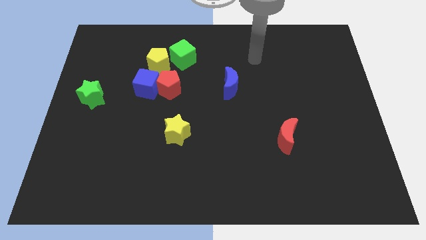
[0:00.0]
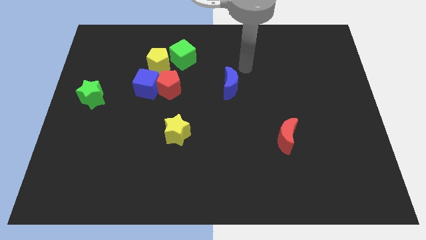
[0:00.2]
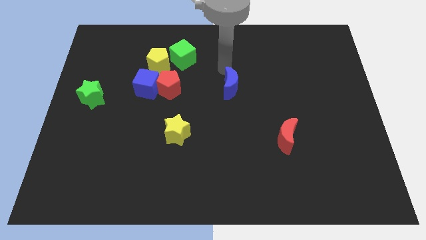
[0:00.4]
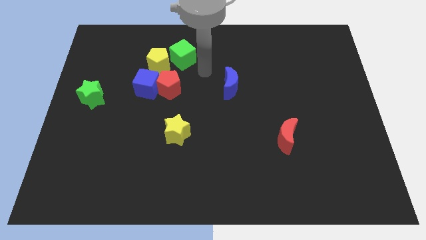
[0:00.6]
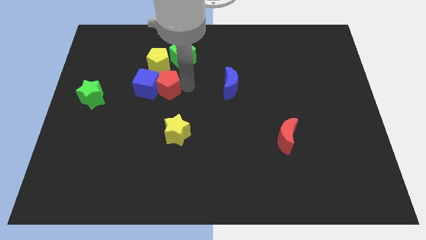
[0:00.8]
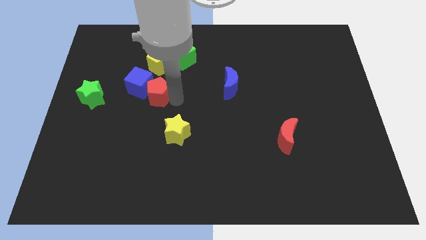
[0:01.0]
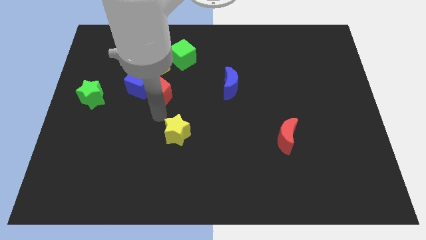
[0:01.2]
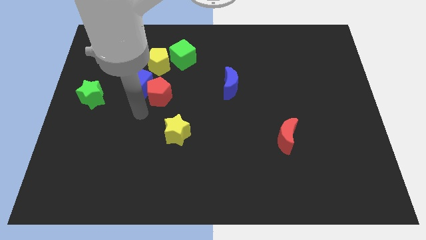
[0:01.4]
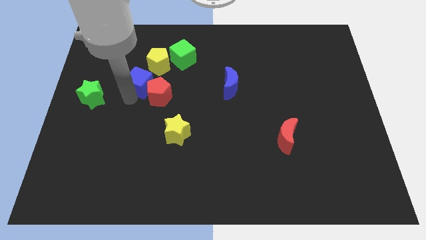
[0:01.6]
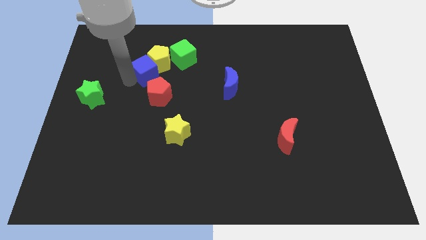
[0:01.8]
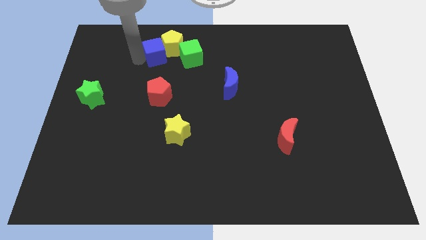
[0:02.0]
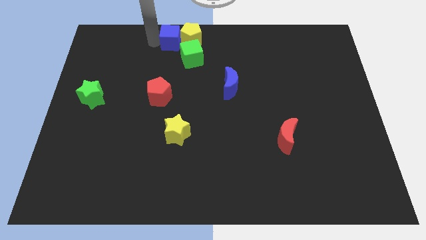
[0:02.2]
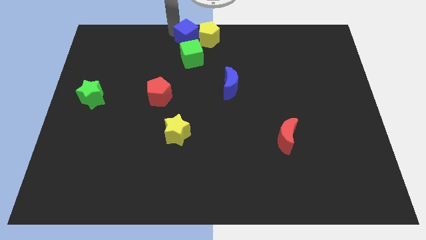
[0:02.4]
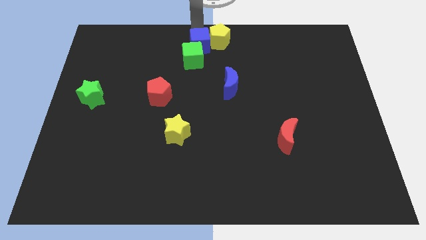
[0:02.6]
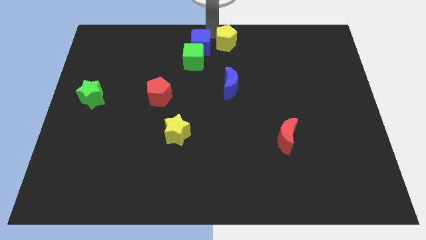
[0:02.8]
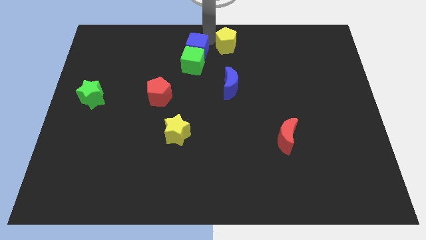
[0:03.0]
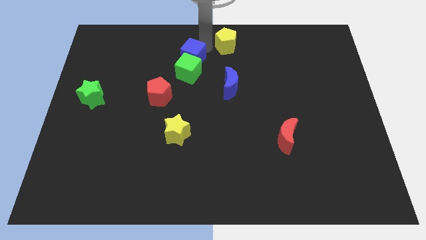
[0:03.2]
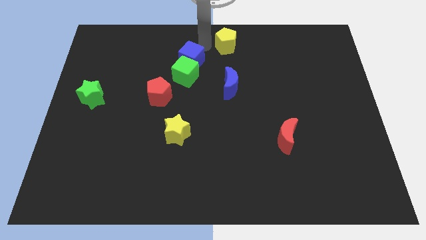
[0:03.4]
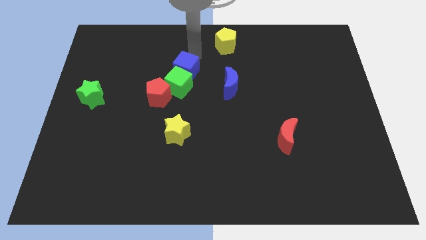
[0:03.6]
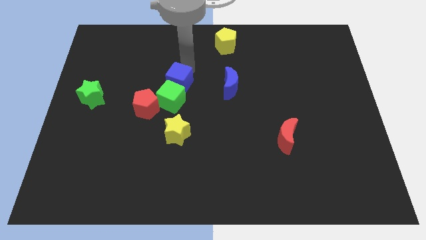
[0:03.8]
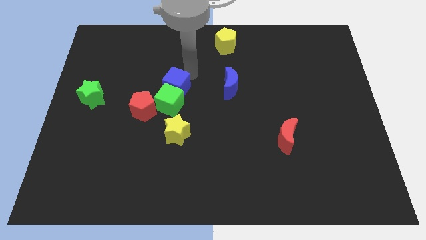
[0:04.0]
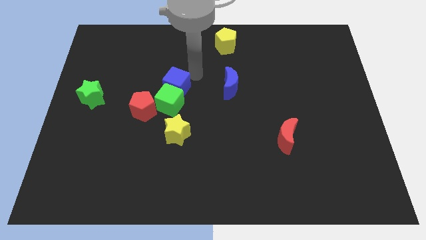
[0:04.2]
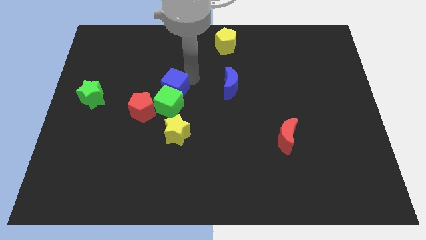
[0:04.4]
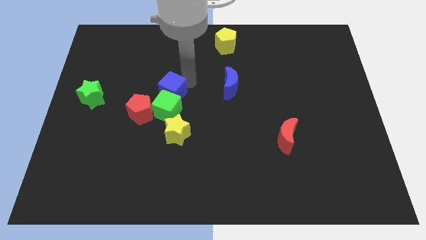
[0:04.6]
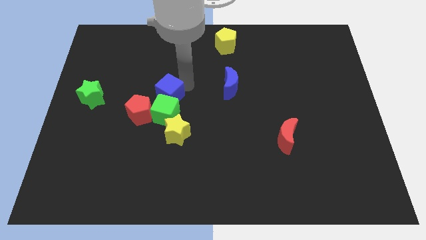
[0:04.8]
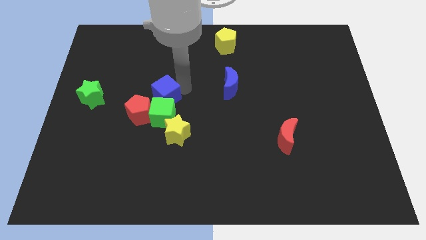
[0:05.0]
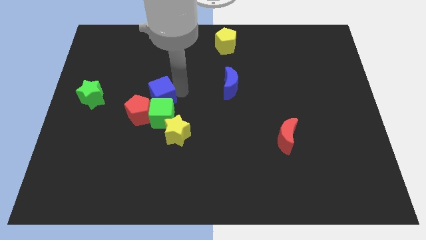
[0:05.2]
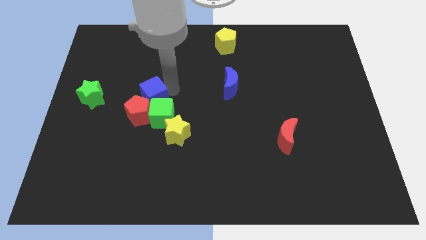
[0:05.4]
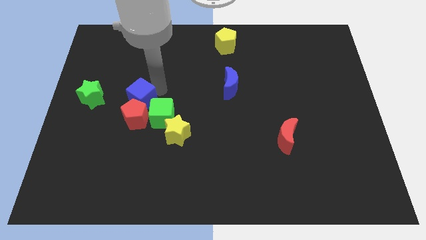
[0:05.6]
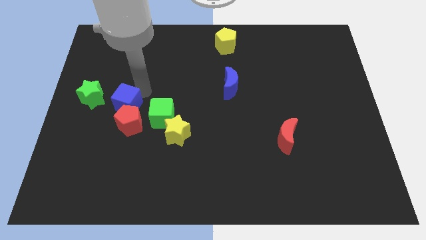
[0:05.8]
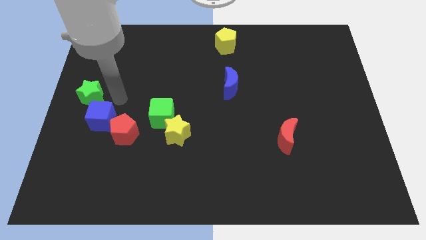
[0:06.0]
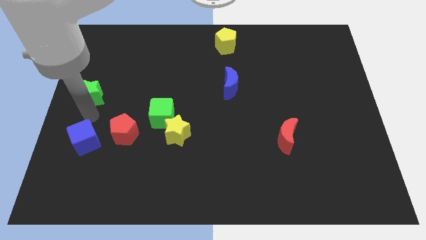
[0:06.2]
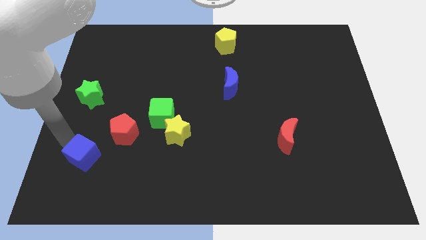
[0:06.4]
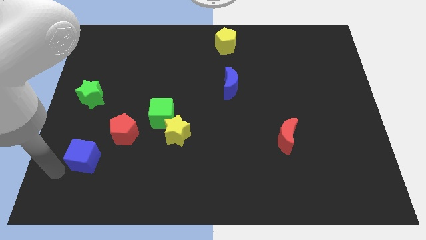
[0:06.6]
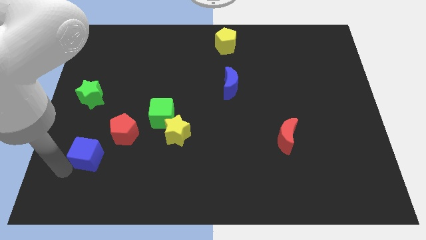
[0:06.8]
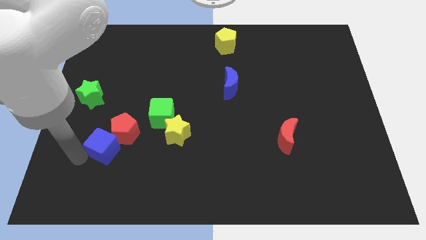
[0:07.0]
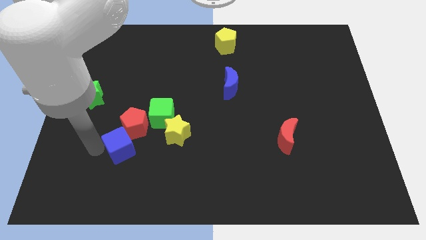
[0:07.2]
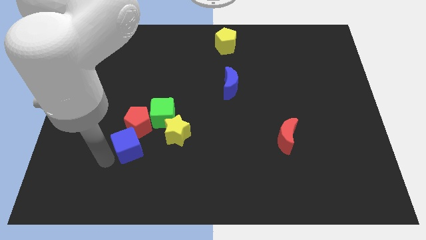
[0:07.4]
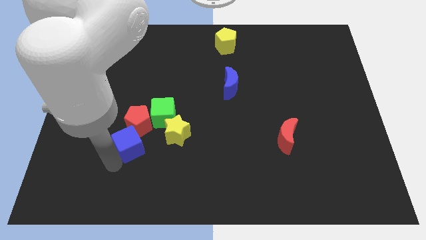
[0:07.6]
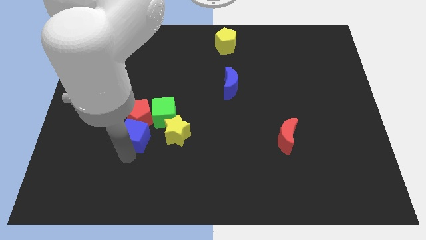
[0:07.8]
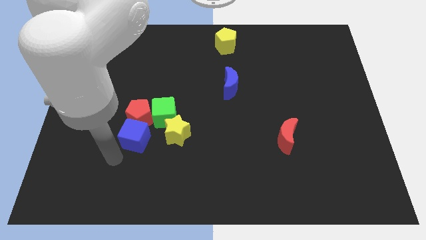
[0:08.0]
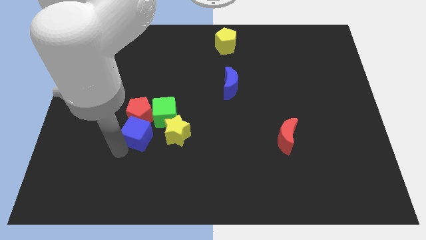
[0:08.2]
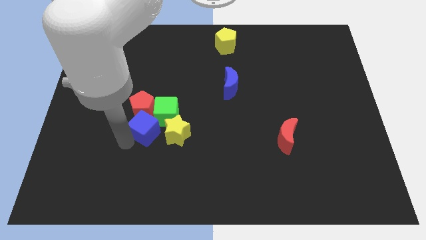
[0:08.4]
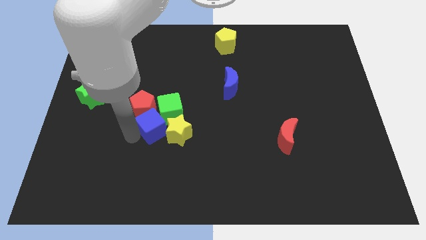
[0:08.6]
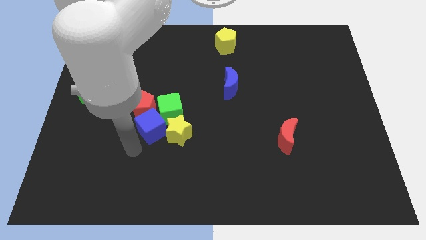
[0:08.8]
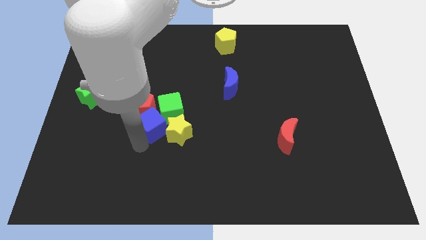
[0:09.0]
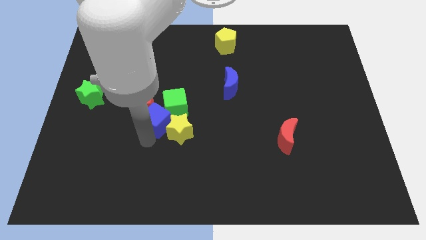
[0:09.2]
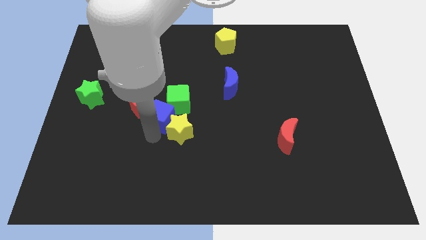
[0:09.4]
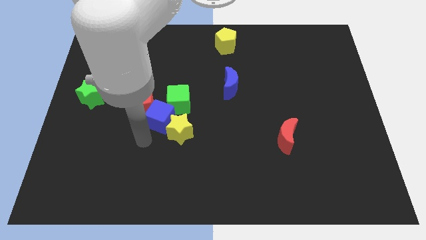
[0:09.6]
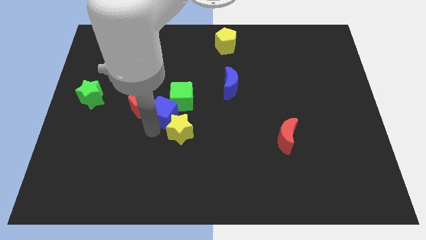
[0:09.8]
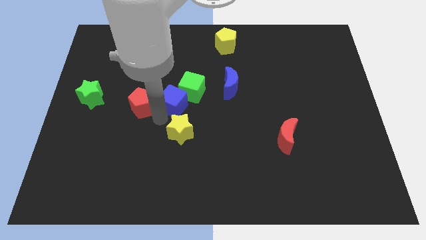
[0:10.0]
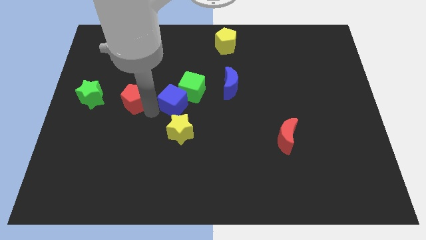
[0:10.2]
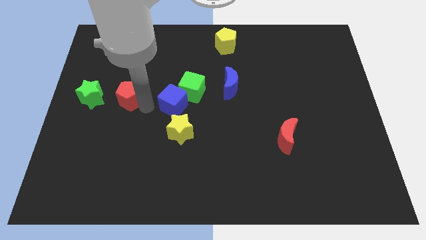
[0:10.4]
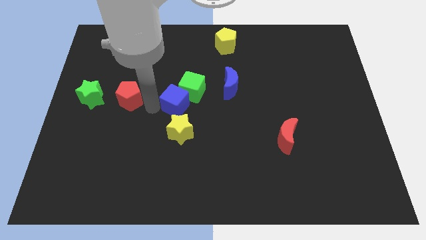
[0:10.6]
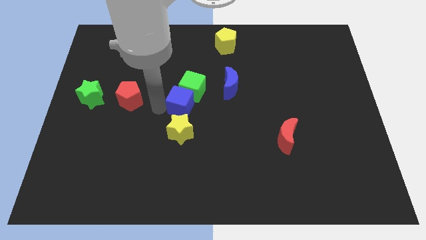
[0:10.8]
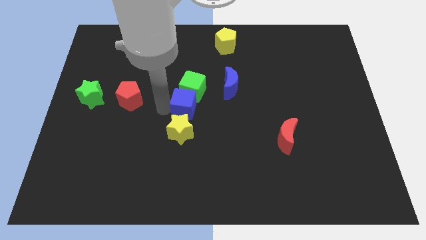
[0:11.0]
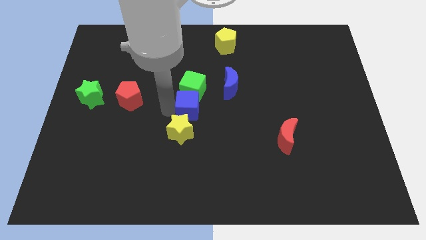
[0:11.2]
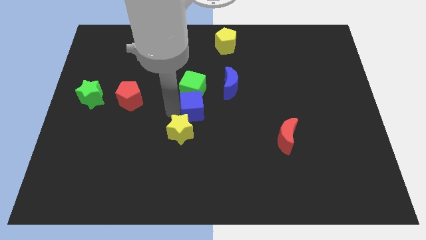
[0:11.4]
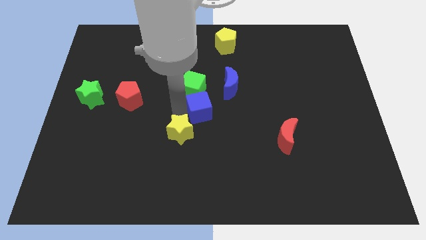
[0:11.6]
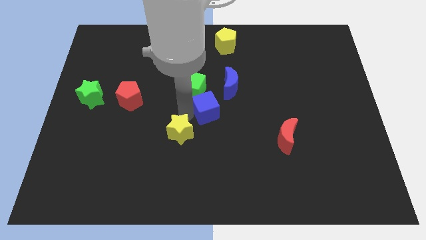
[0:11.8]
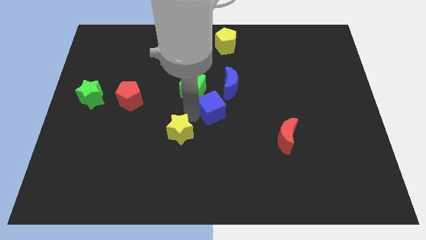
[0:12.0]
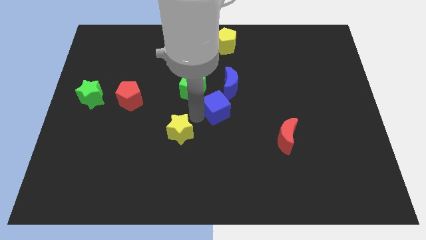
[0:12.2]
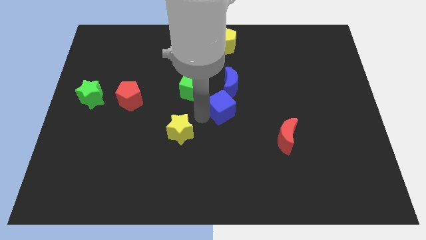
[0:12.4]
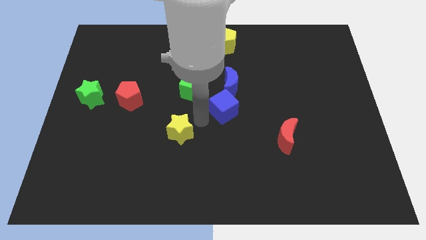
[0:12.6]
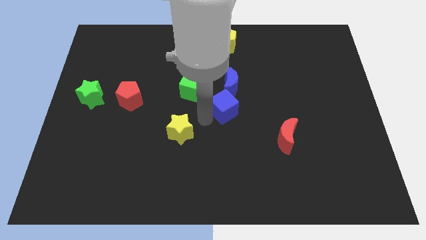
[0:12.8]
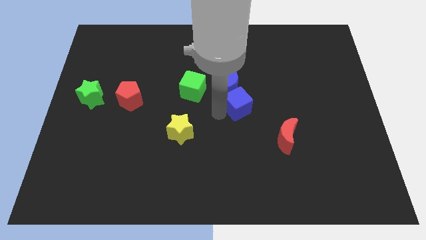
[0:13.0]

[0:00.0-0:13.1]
move the blue cube to the right

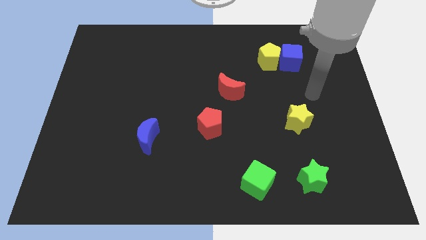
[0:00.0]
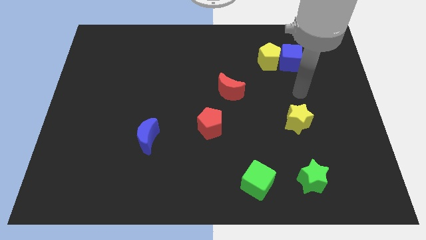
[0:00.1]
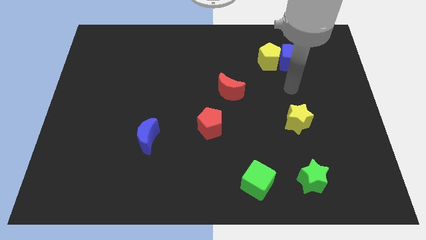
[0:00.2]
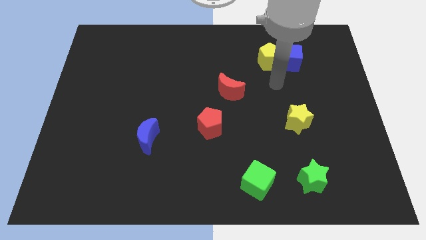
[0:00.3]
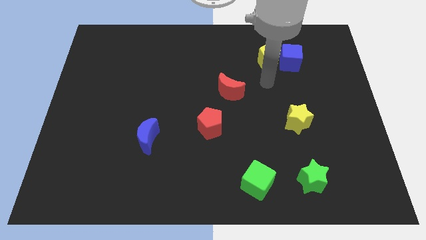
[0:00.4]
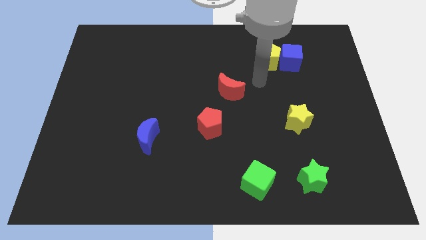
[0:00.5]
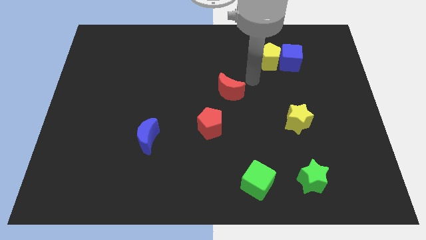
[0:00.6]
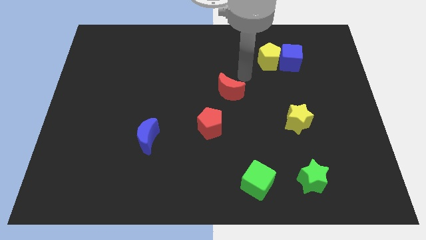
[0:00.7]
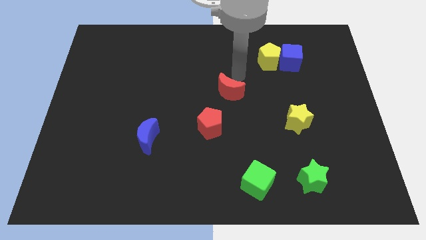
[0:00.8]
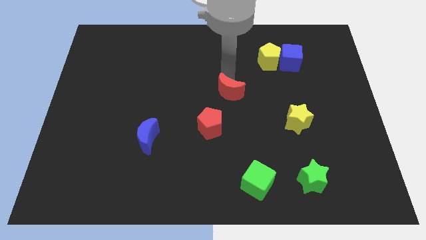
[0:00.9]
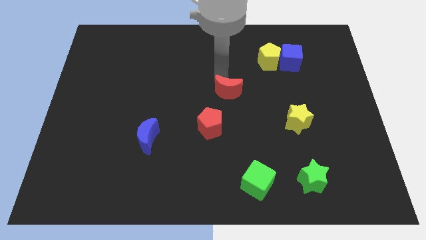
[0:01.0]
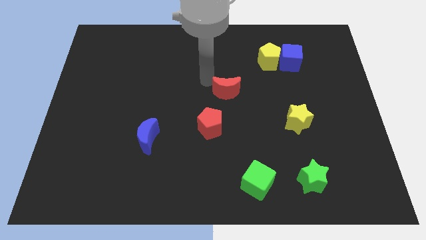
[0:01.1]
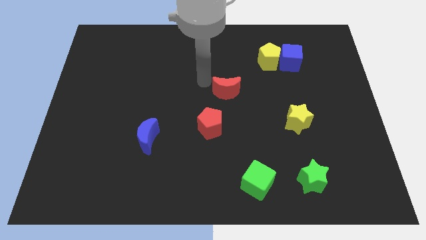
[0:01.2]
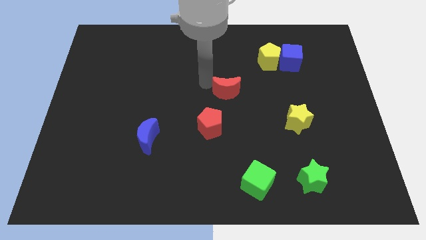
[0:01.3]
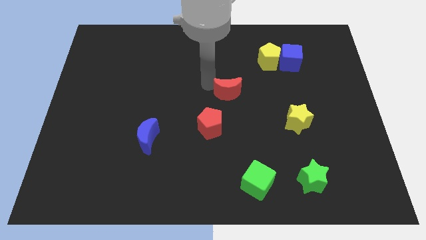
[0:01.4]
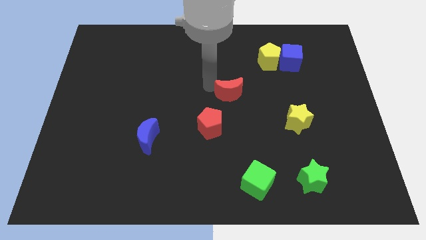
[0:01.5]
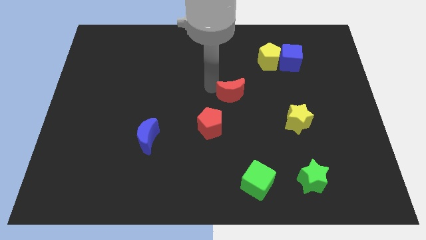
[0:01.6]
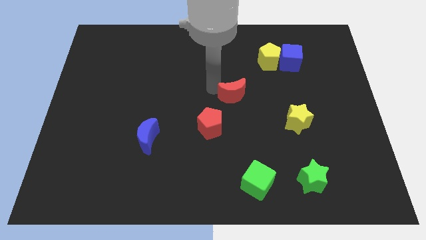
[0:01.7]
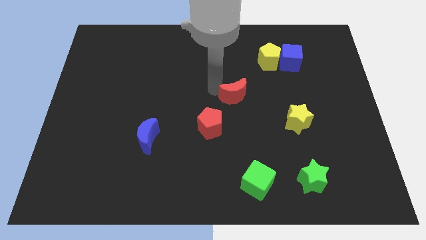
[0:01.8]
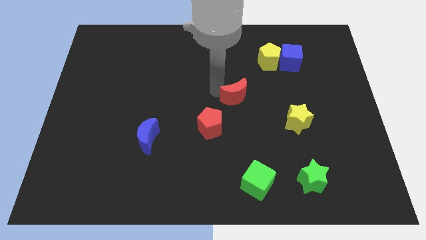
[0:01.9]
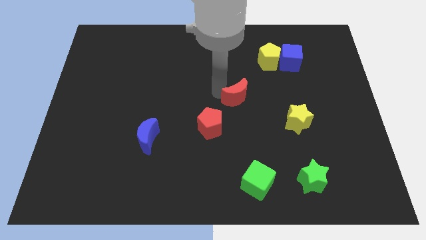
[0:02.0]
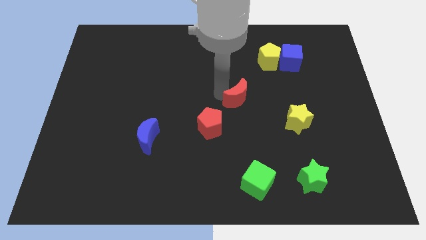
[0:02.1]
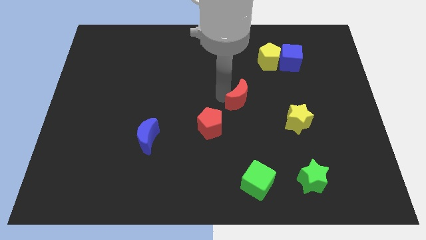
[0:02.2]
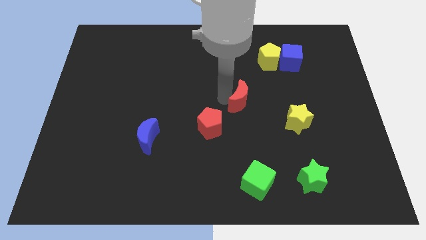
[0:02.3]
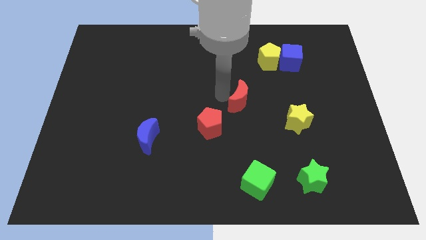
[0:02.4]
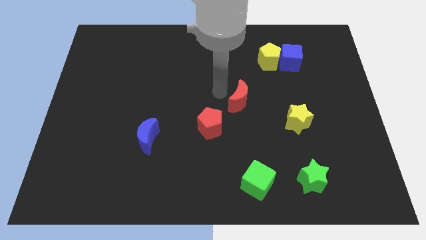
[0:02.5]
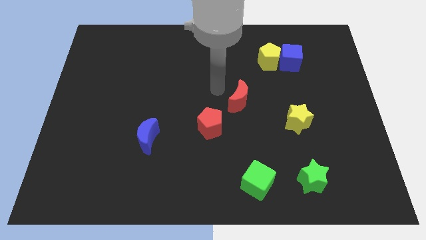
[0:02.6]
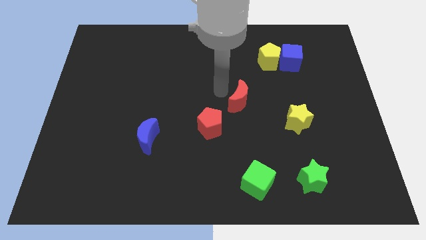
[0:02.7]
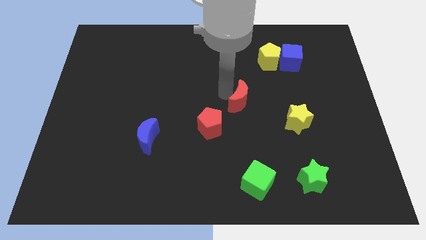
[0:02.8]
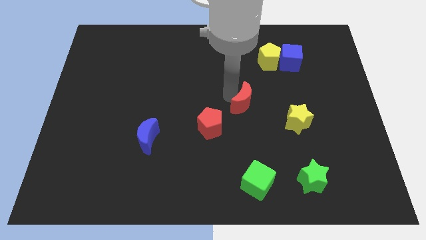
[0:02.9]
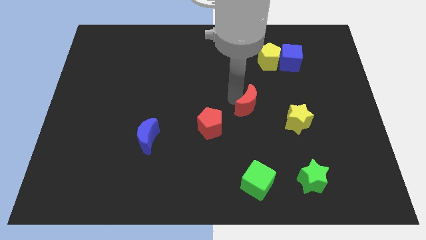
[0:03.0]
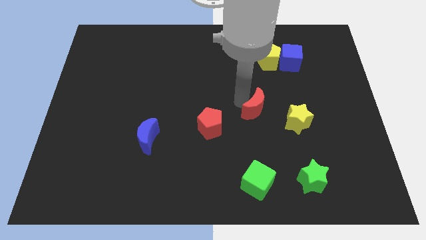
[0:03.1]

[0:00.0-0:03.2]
slightly push the red moon downwards and to the right
